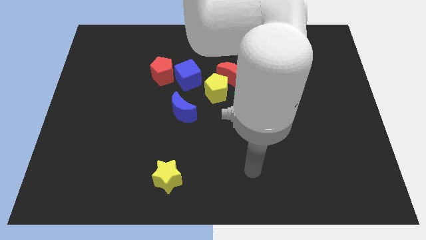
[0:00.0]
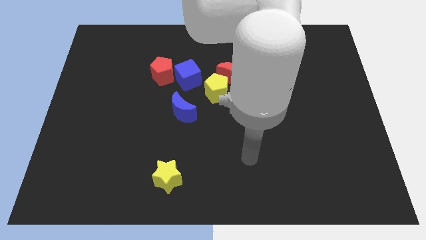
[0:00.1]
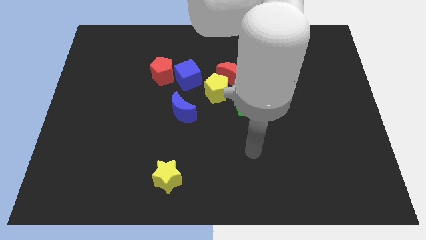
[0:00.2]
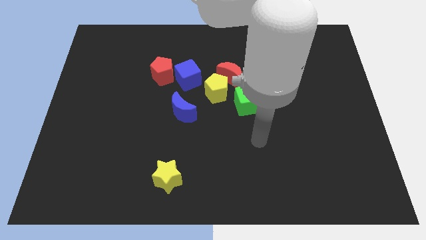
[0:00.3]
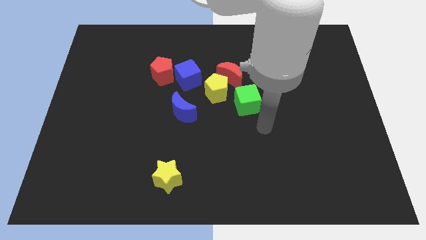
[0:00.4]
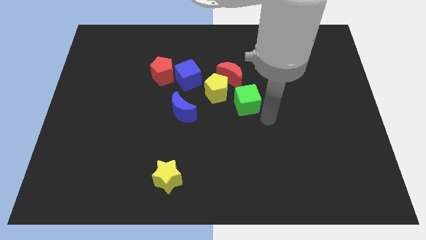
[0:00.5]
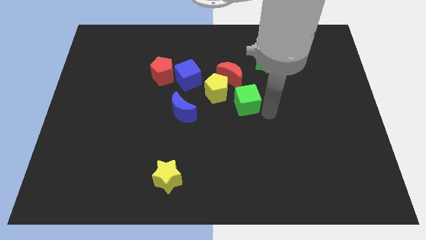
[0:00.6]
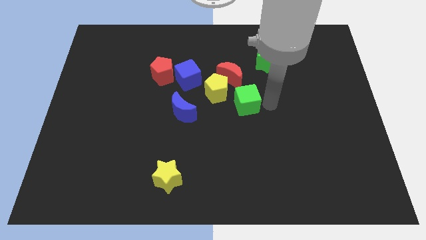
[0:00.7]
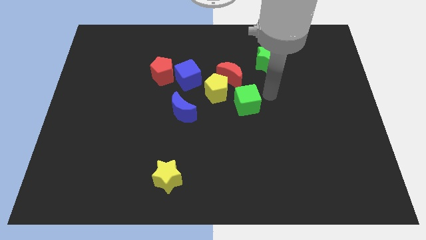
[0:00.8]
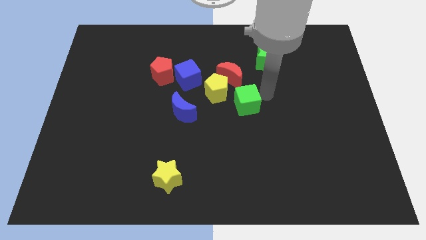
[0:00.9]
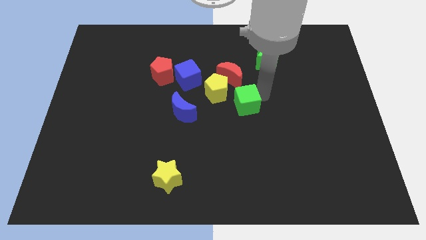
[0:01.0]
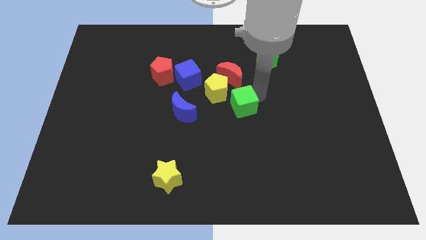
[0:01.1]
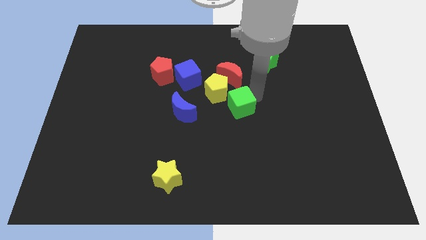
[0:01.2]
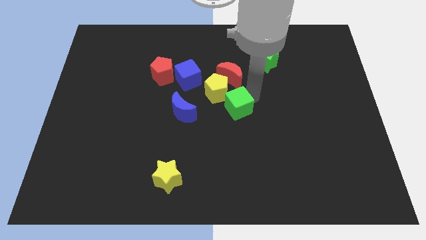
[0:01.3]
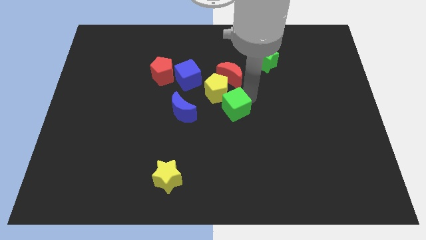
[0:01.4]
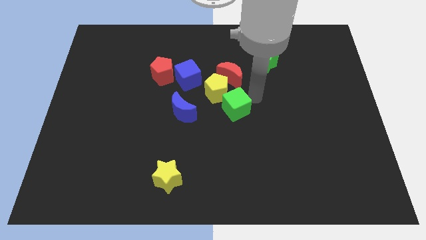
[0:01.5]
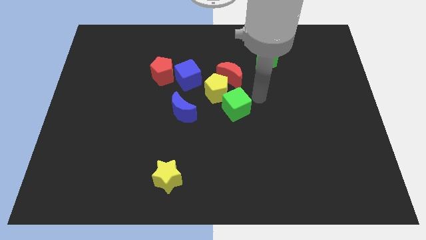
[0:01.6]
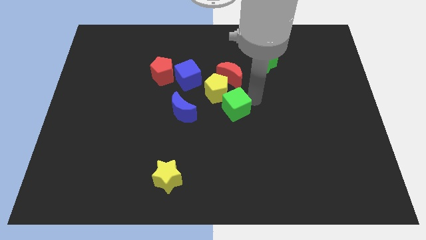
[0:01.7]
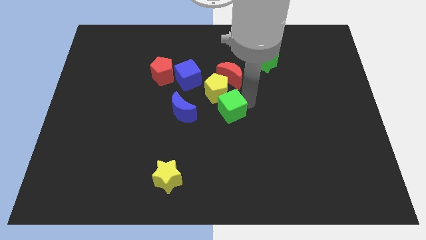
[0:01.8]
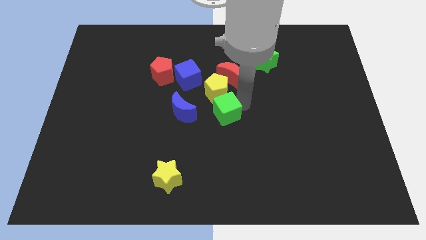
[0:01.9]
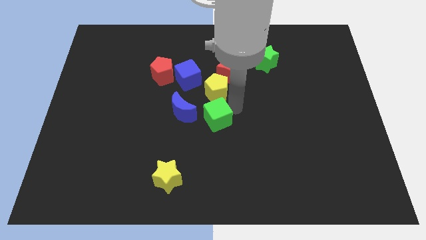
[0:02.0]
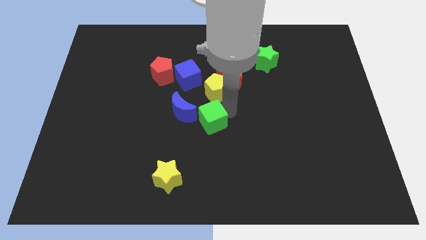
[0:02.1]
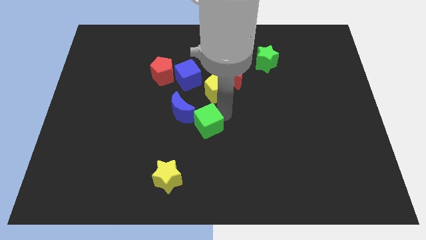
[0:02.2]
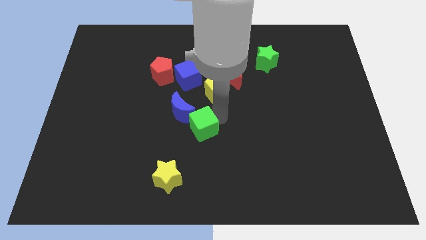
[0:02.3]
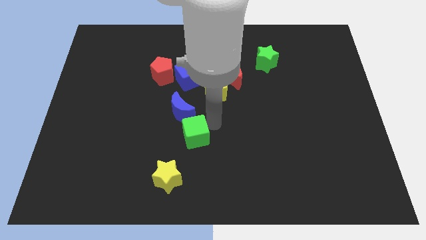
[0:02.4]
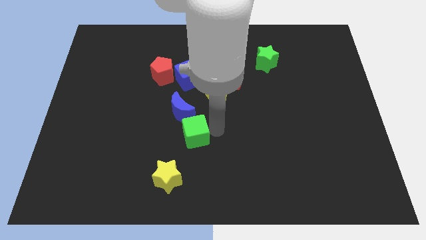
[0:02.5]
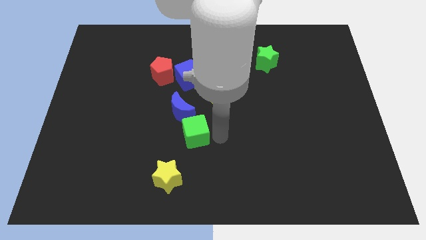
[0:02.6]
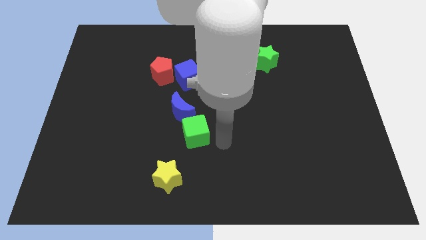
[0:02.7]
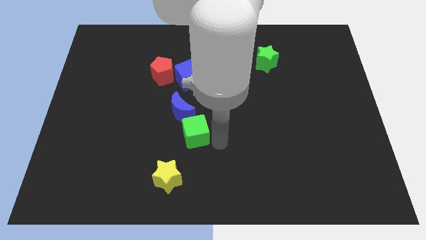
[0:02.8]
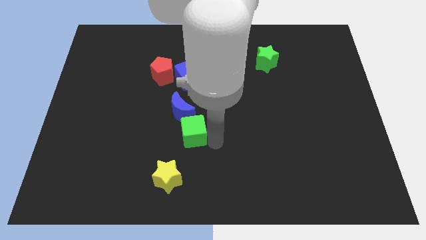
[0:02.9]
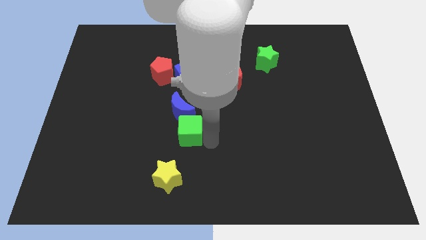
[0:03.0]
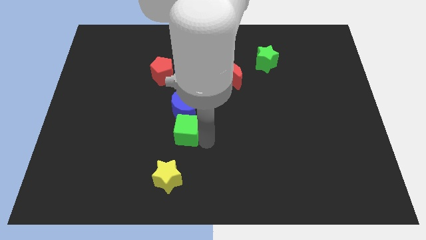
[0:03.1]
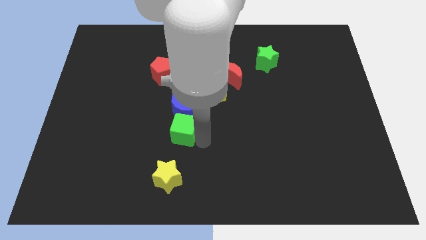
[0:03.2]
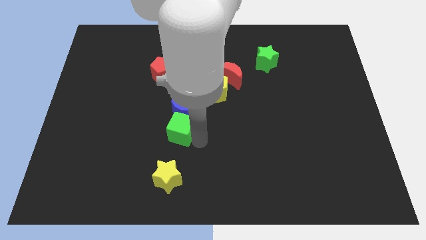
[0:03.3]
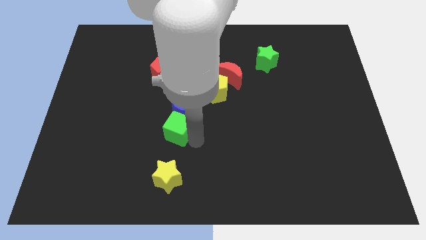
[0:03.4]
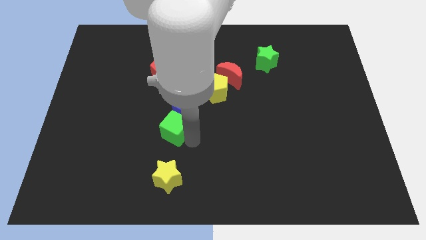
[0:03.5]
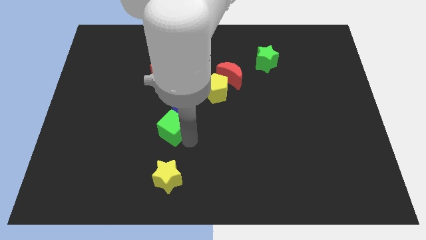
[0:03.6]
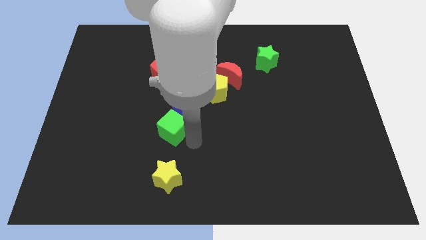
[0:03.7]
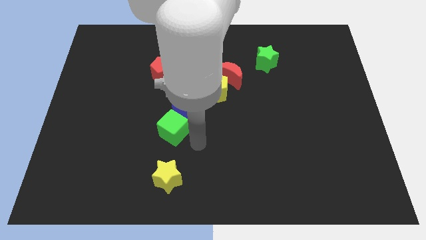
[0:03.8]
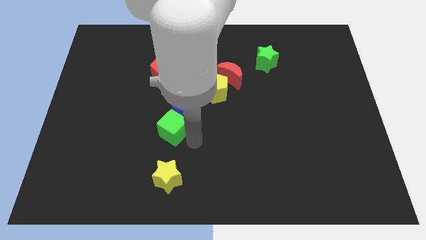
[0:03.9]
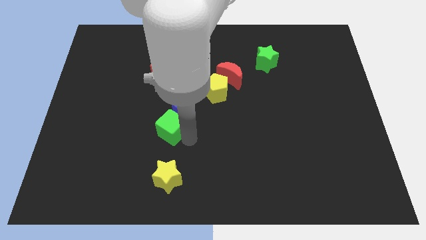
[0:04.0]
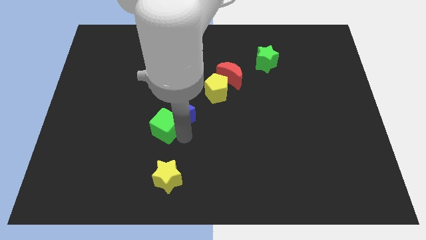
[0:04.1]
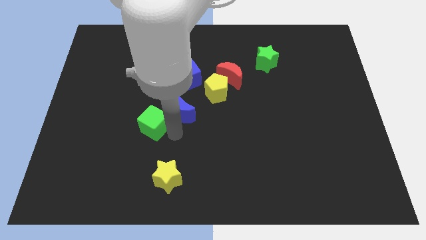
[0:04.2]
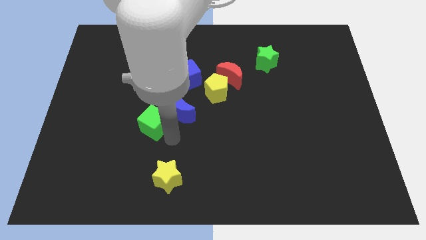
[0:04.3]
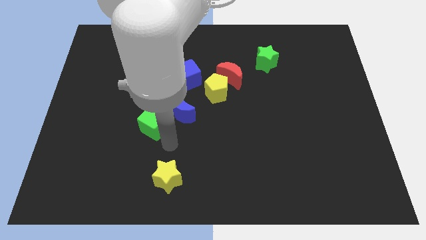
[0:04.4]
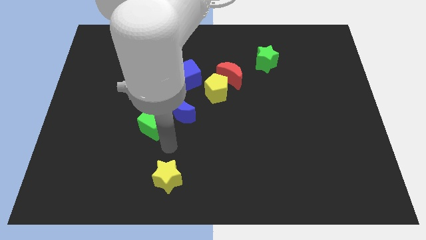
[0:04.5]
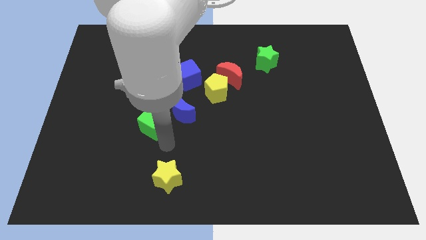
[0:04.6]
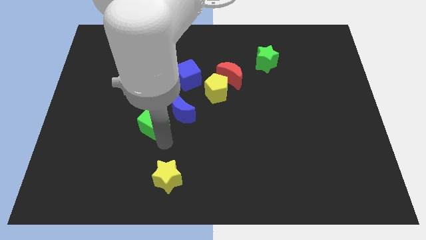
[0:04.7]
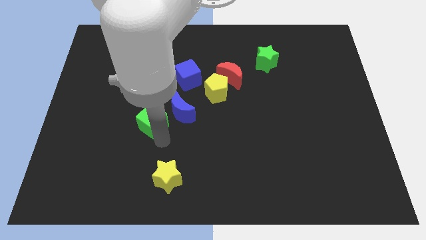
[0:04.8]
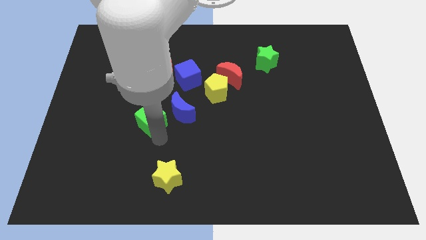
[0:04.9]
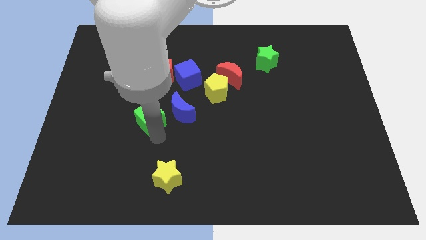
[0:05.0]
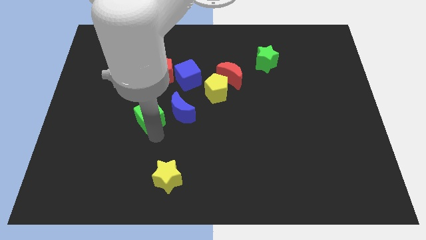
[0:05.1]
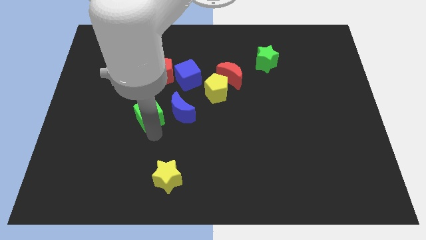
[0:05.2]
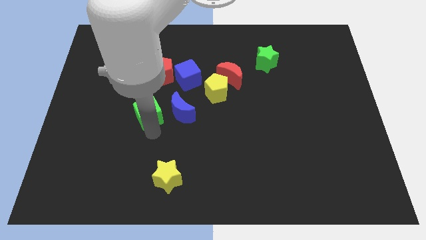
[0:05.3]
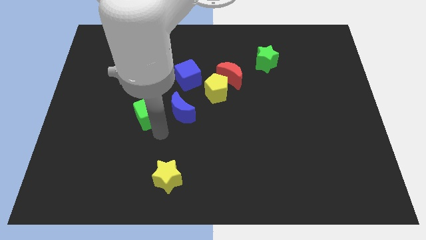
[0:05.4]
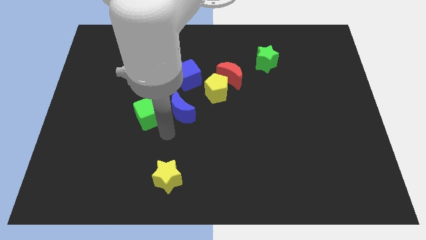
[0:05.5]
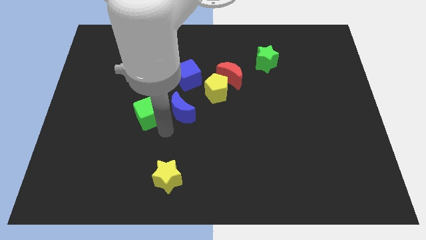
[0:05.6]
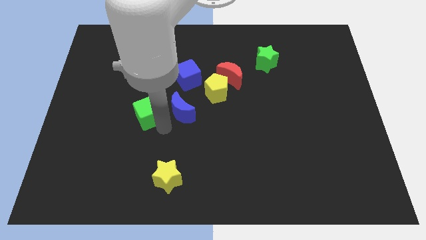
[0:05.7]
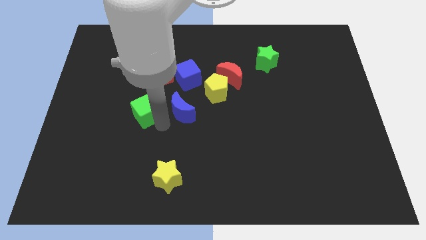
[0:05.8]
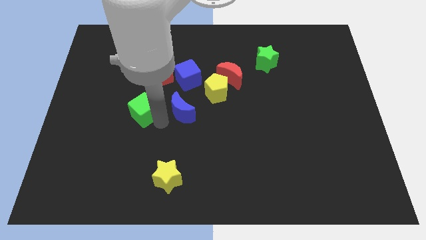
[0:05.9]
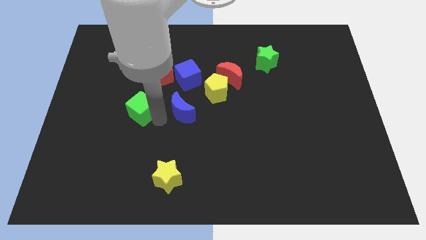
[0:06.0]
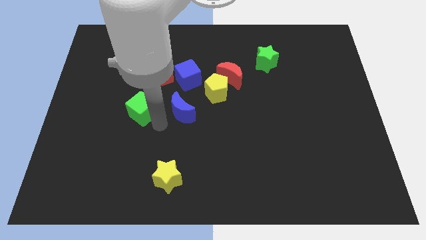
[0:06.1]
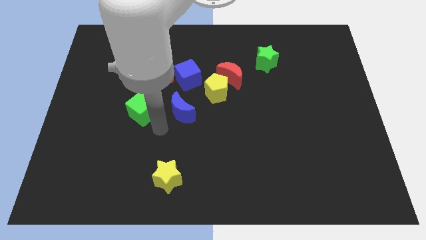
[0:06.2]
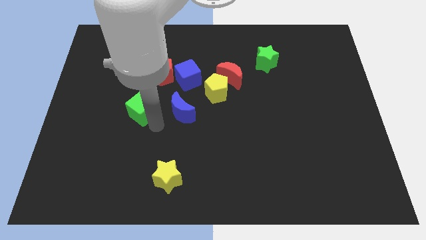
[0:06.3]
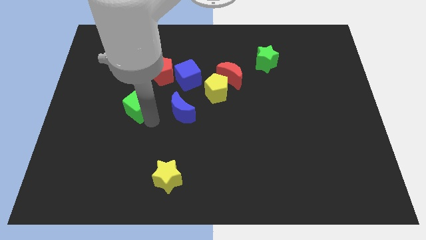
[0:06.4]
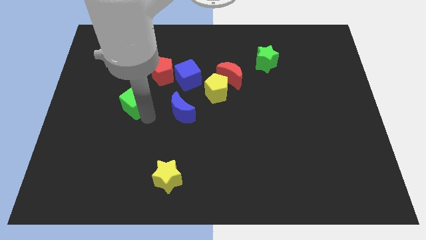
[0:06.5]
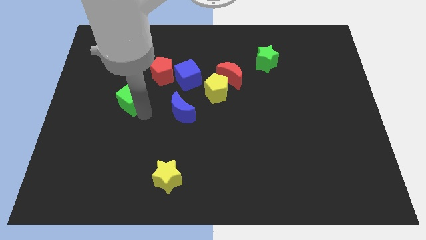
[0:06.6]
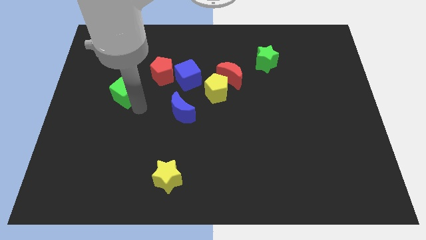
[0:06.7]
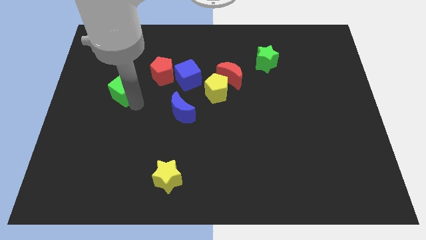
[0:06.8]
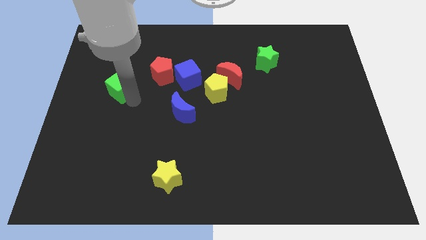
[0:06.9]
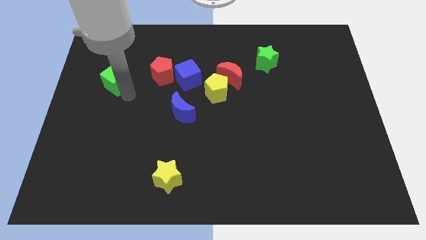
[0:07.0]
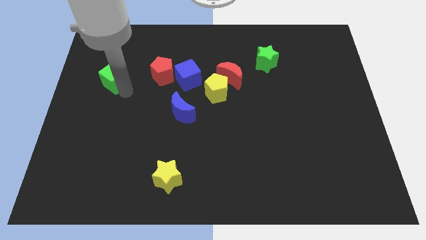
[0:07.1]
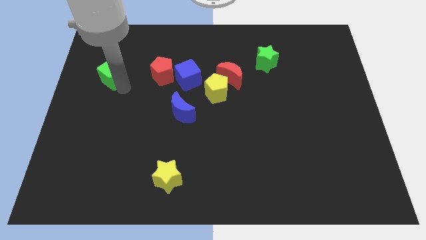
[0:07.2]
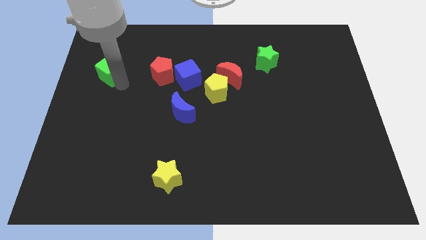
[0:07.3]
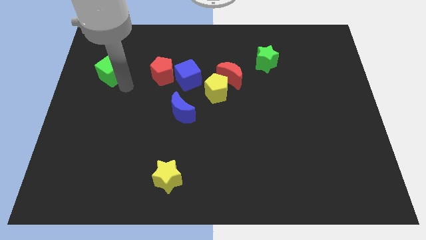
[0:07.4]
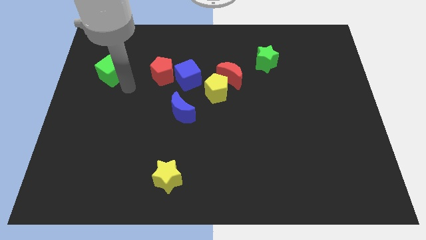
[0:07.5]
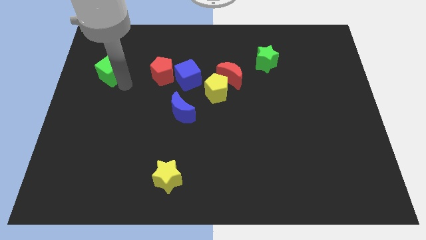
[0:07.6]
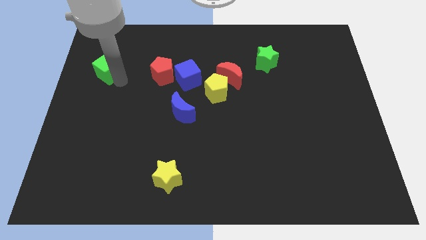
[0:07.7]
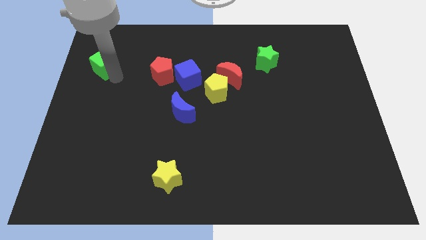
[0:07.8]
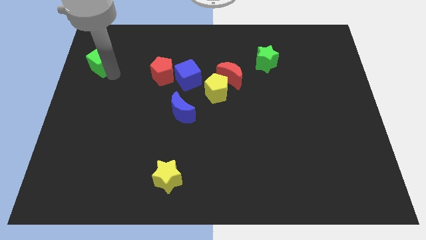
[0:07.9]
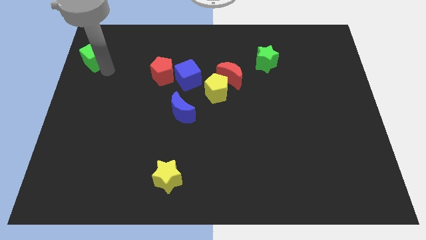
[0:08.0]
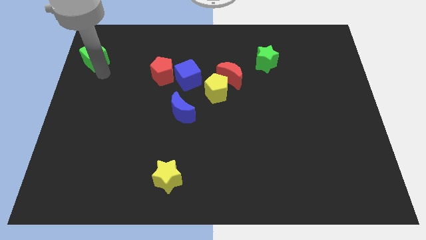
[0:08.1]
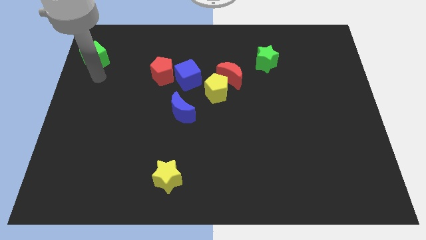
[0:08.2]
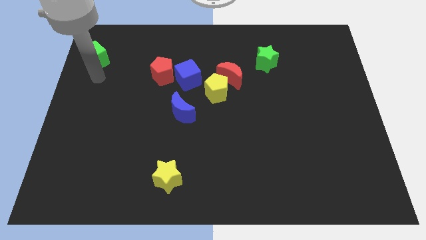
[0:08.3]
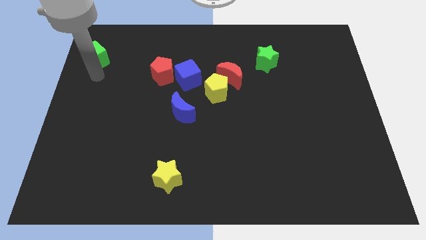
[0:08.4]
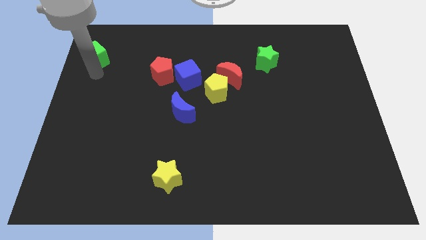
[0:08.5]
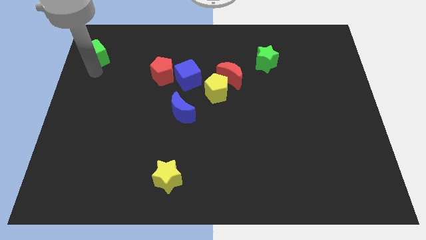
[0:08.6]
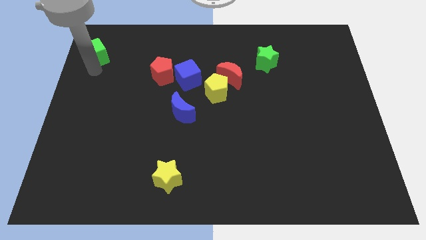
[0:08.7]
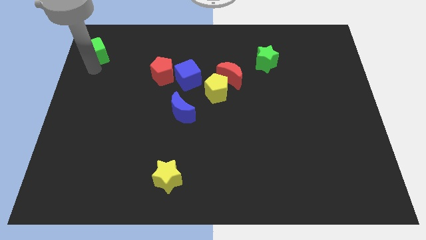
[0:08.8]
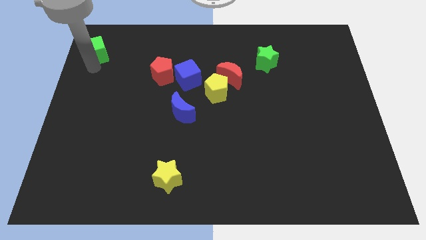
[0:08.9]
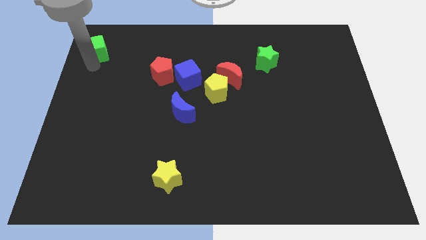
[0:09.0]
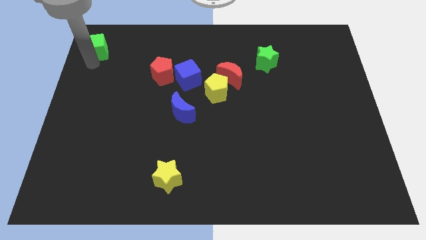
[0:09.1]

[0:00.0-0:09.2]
push the green cube to the top left
